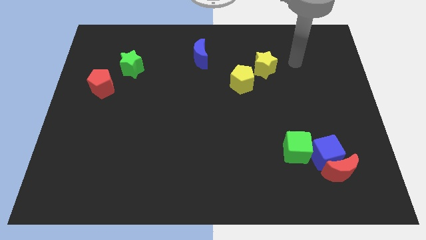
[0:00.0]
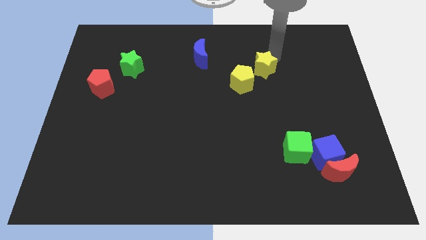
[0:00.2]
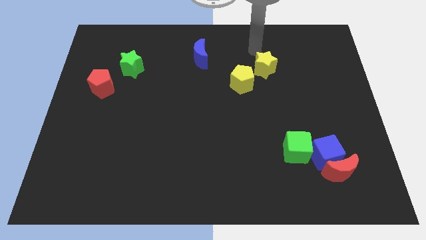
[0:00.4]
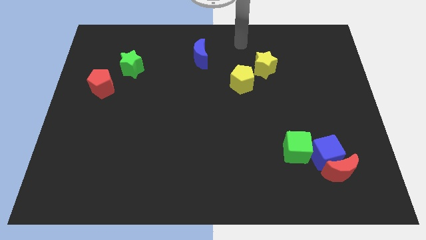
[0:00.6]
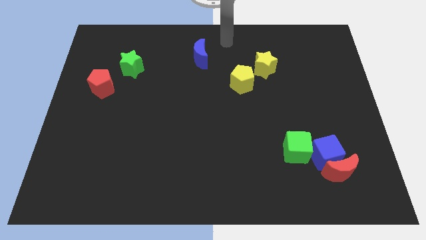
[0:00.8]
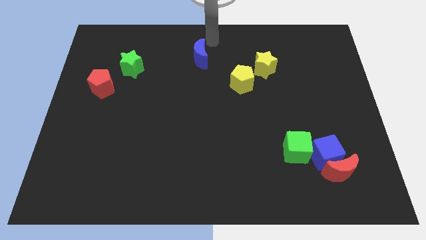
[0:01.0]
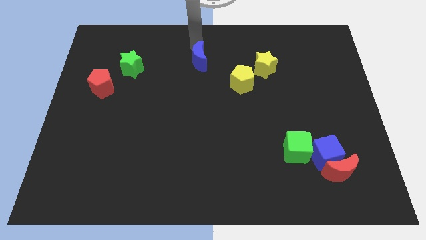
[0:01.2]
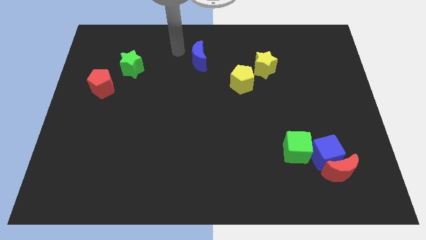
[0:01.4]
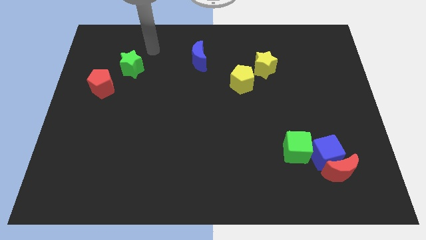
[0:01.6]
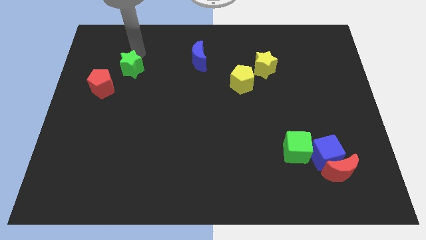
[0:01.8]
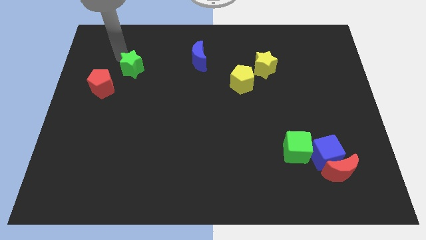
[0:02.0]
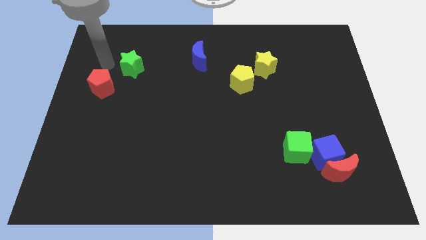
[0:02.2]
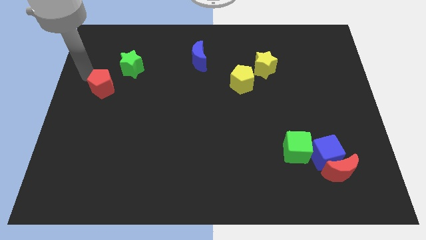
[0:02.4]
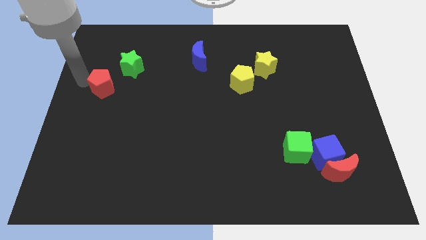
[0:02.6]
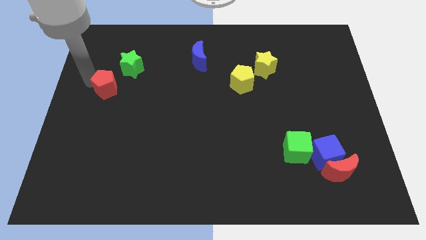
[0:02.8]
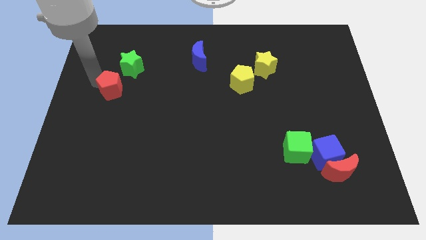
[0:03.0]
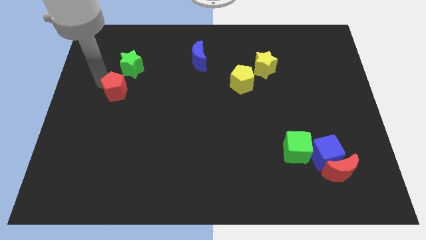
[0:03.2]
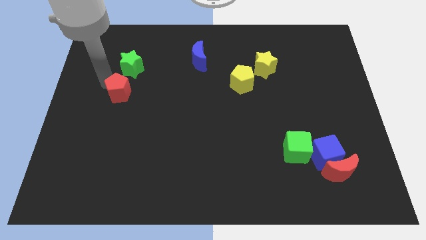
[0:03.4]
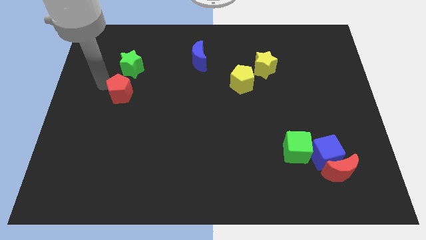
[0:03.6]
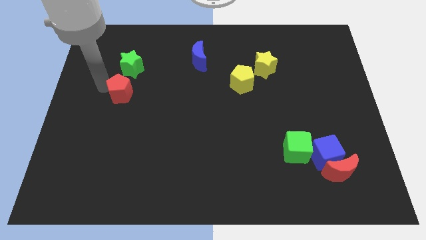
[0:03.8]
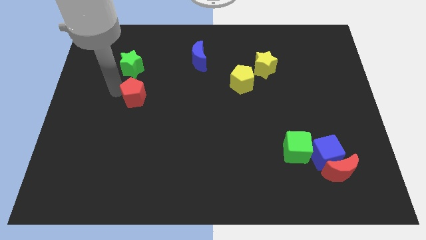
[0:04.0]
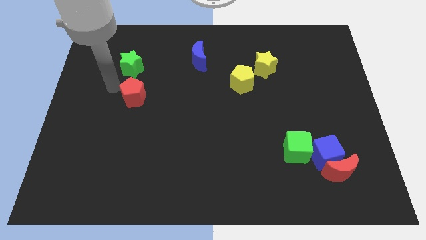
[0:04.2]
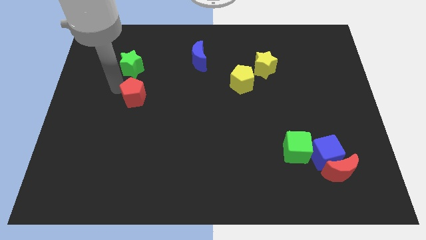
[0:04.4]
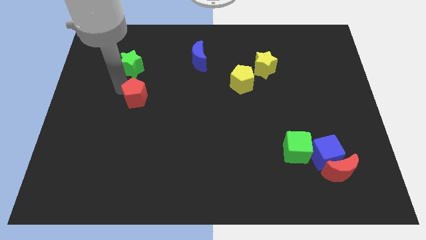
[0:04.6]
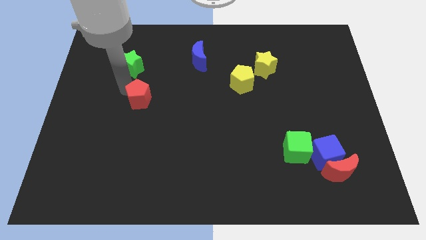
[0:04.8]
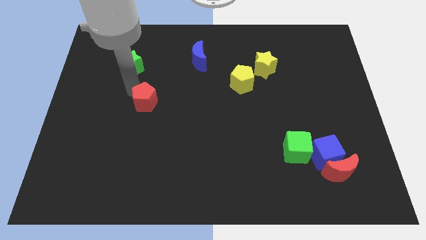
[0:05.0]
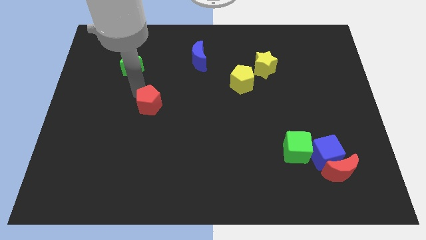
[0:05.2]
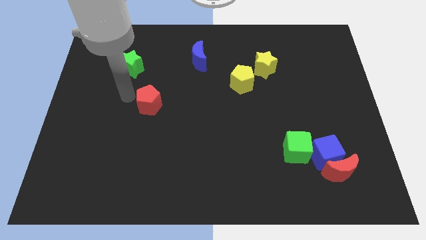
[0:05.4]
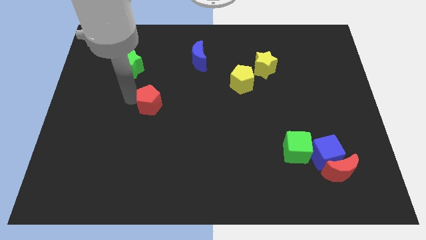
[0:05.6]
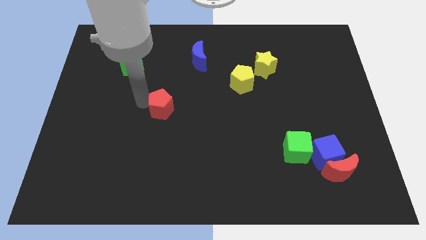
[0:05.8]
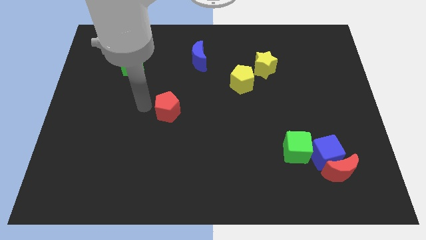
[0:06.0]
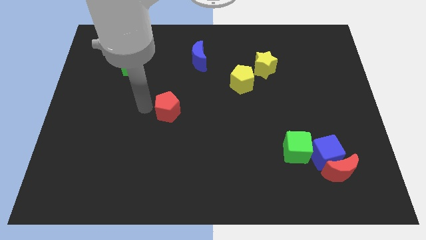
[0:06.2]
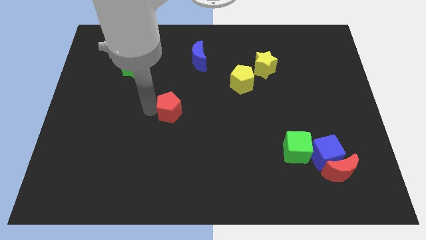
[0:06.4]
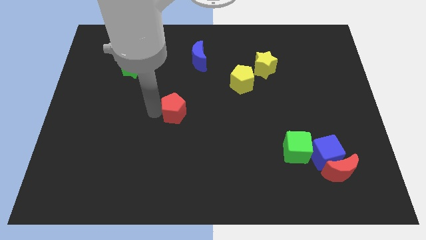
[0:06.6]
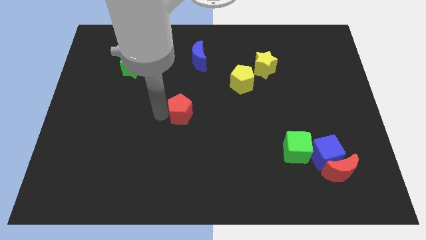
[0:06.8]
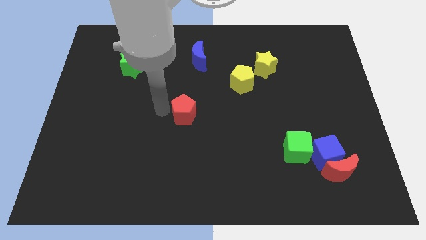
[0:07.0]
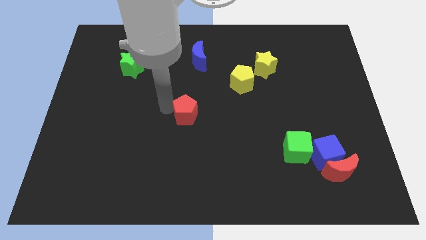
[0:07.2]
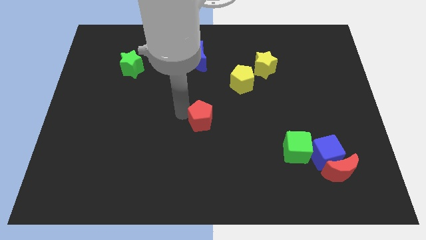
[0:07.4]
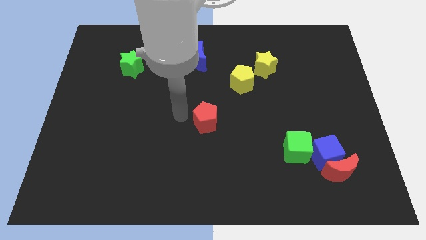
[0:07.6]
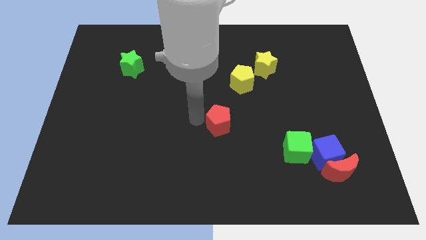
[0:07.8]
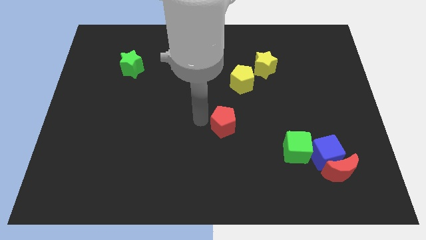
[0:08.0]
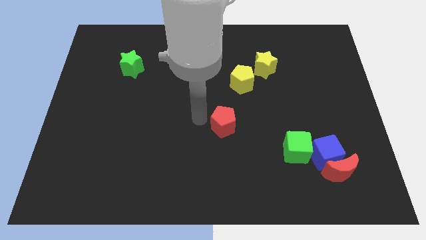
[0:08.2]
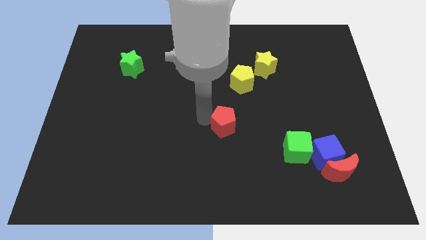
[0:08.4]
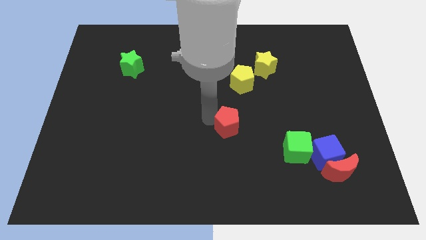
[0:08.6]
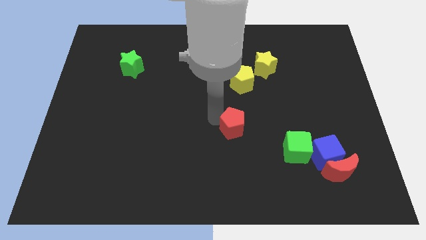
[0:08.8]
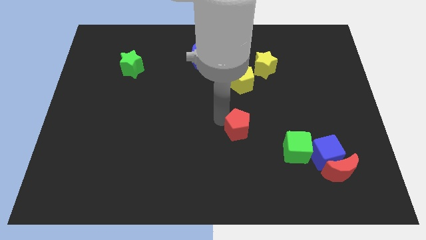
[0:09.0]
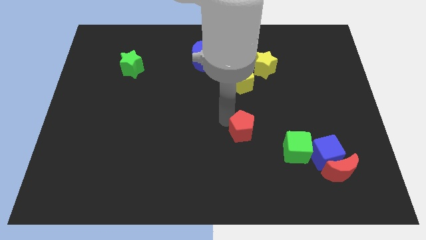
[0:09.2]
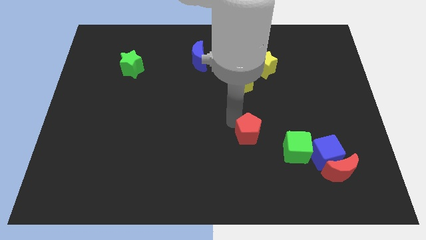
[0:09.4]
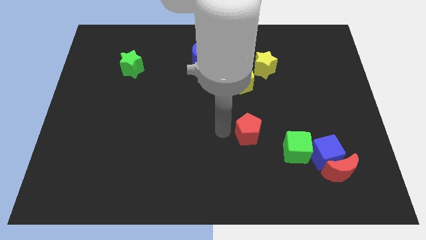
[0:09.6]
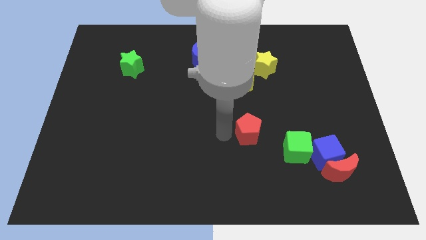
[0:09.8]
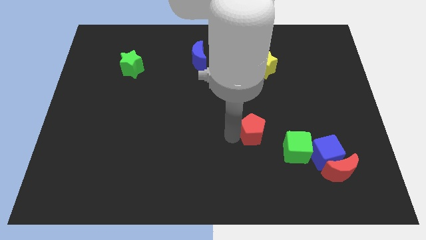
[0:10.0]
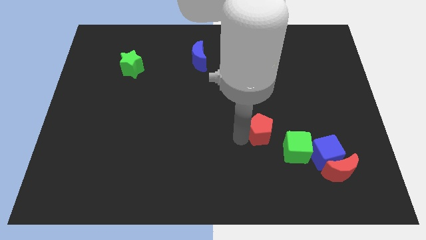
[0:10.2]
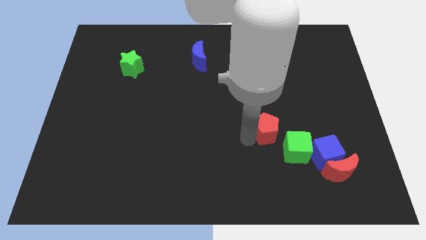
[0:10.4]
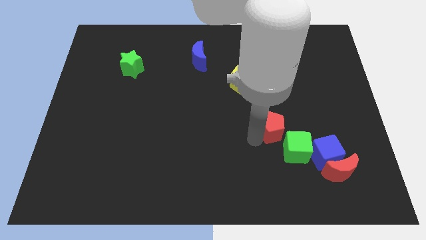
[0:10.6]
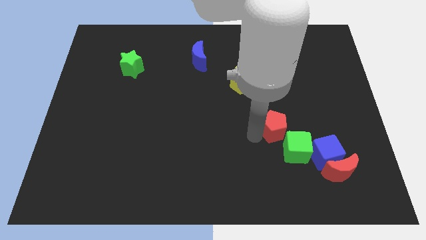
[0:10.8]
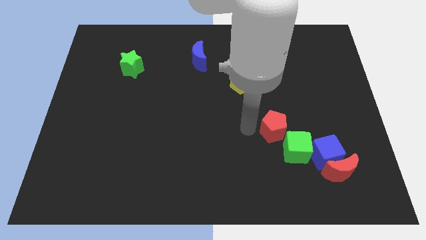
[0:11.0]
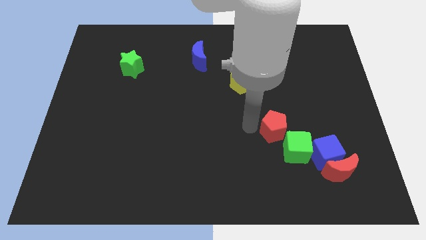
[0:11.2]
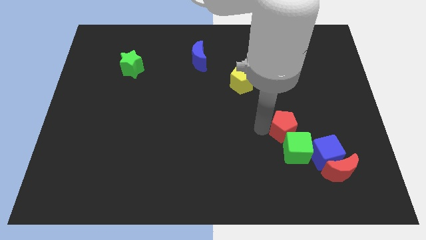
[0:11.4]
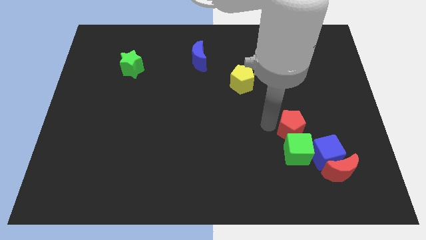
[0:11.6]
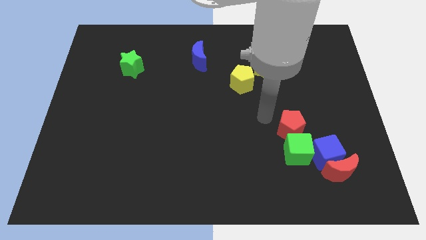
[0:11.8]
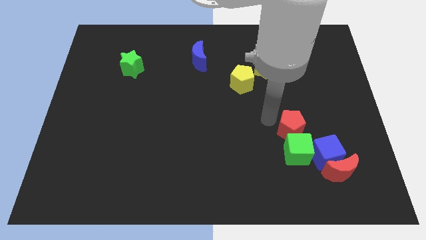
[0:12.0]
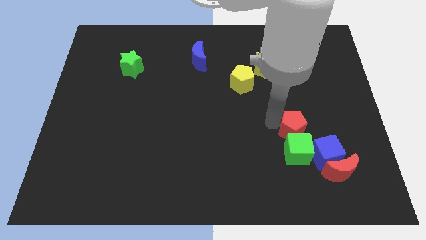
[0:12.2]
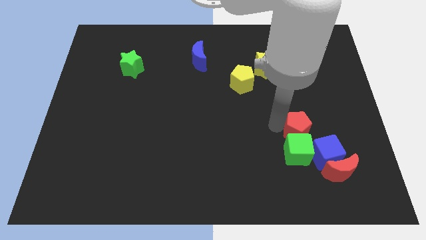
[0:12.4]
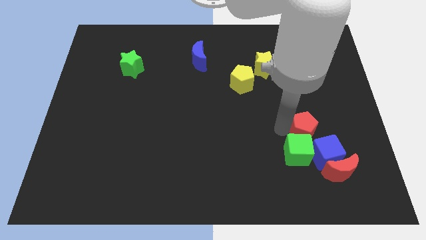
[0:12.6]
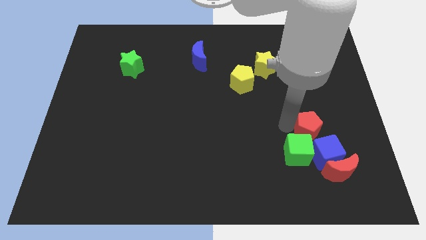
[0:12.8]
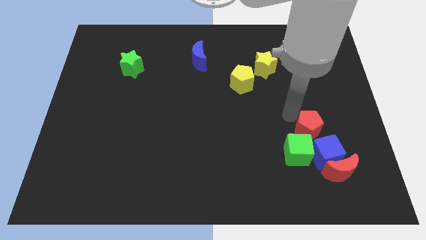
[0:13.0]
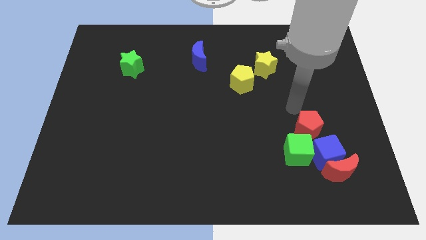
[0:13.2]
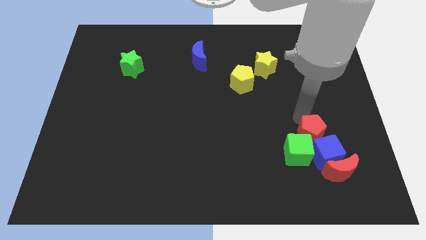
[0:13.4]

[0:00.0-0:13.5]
slide the red pentagon next to the blue cube

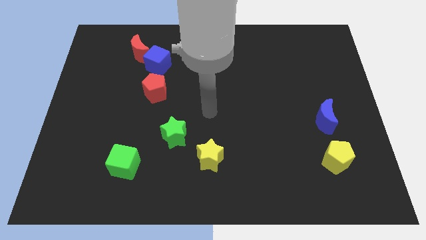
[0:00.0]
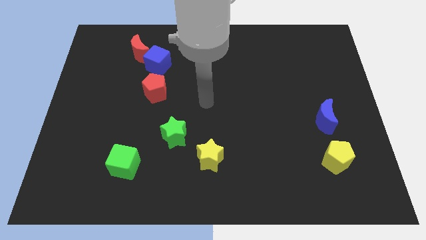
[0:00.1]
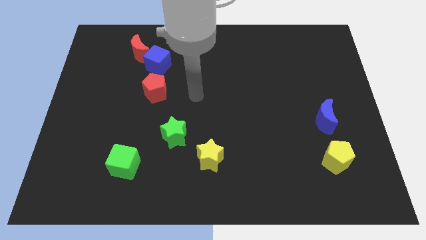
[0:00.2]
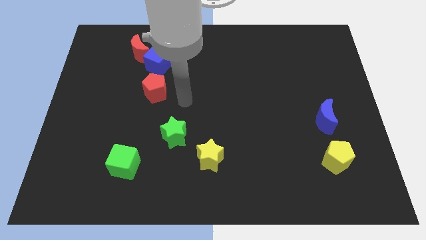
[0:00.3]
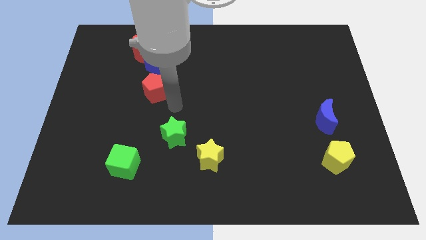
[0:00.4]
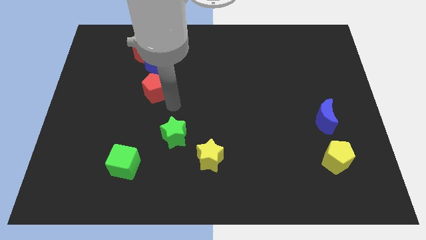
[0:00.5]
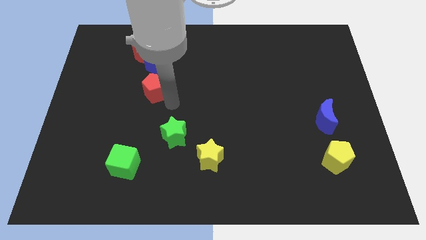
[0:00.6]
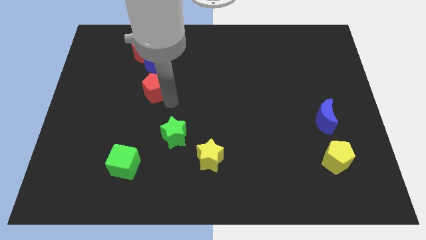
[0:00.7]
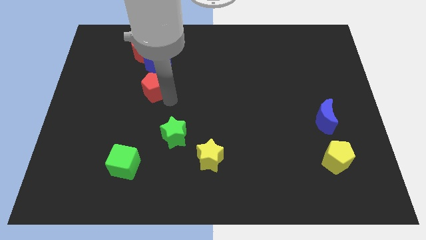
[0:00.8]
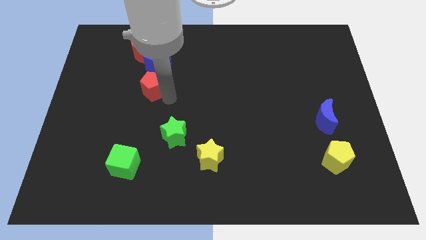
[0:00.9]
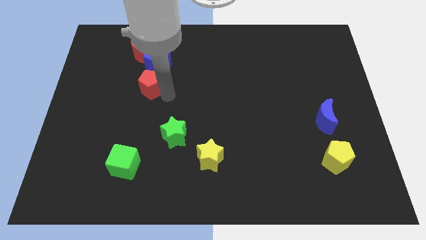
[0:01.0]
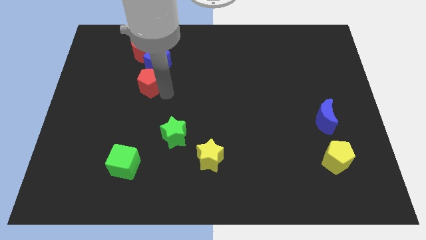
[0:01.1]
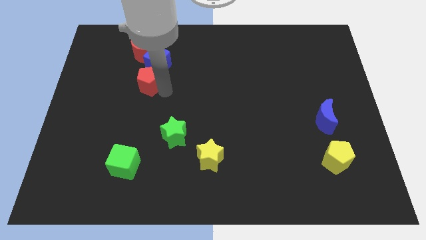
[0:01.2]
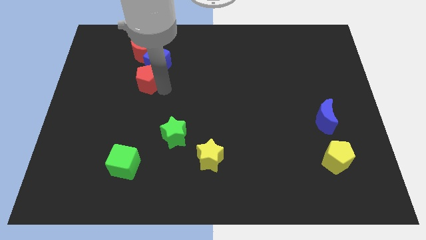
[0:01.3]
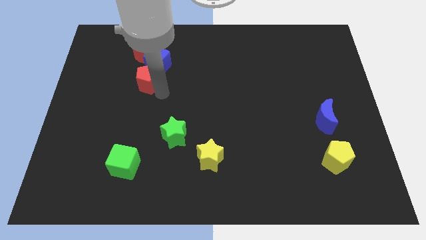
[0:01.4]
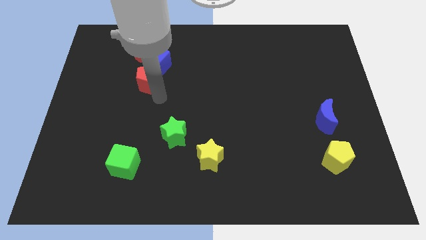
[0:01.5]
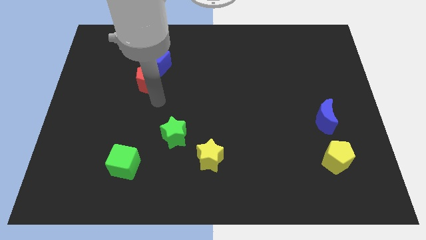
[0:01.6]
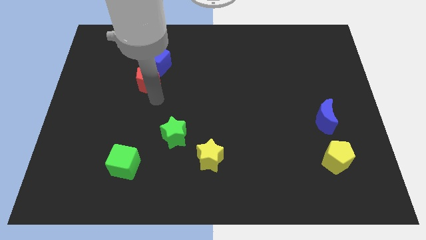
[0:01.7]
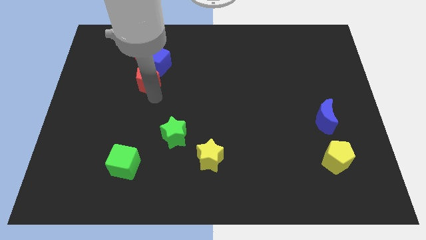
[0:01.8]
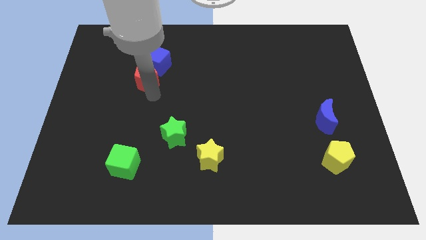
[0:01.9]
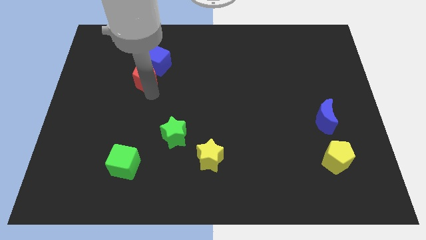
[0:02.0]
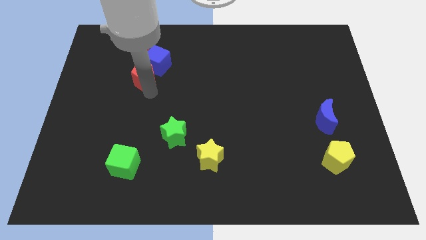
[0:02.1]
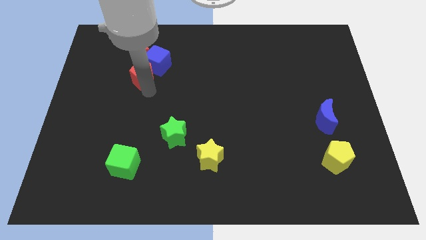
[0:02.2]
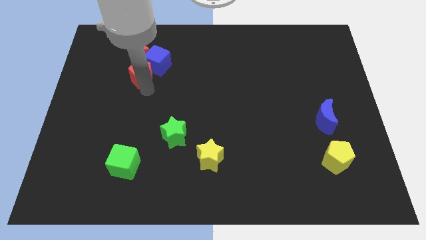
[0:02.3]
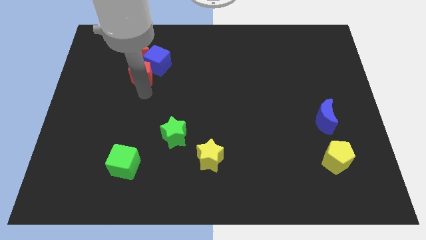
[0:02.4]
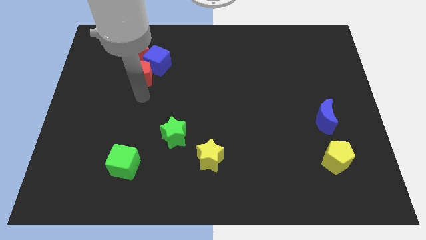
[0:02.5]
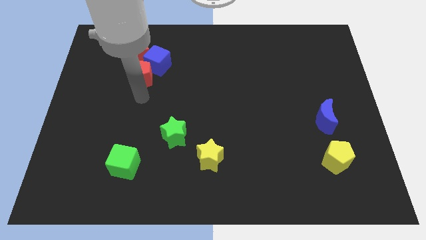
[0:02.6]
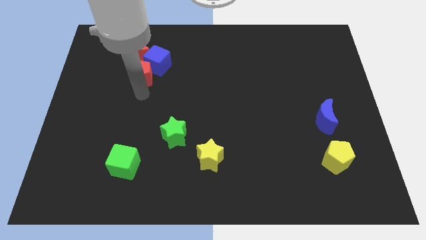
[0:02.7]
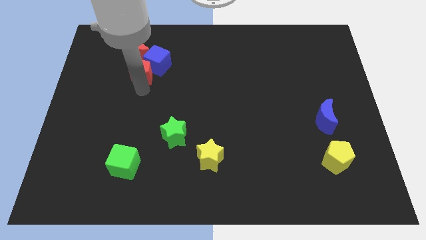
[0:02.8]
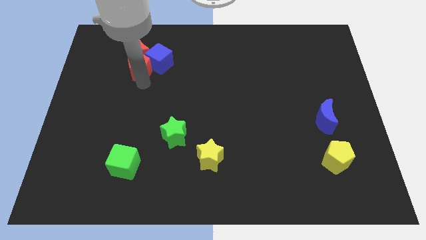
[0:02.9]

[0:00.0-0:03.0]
push the red pentagon towards the red moon
